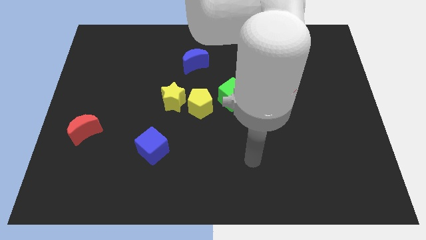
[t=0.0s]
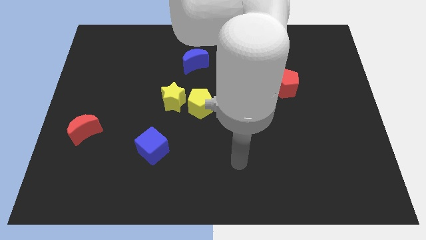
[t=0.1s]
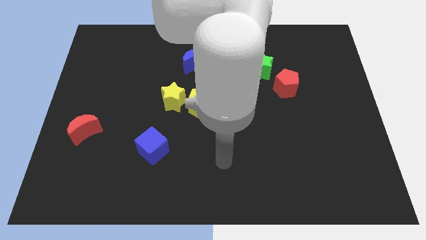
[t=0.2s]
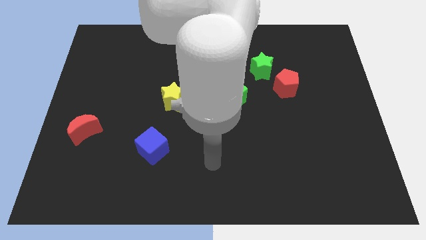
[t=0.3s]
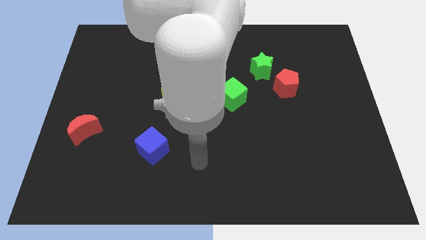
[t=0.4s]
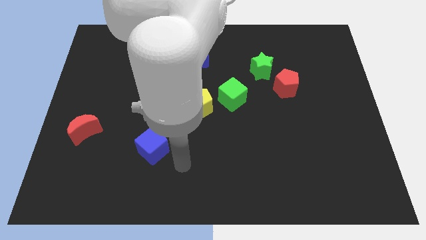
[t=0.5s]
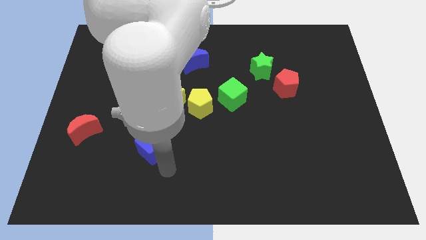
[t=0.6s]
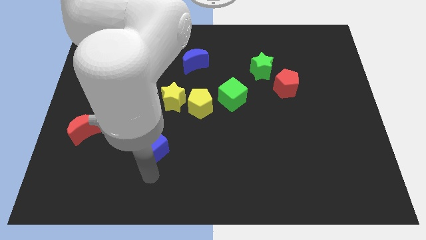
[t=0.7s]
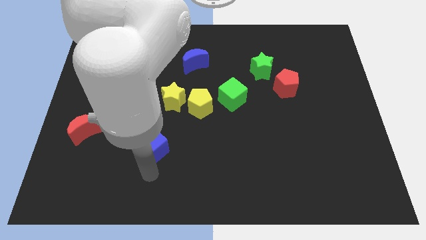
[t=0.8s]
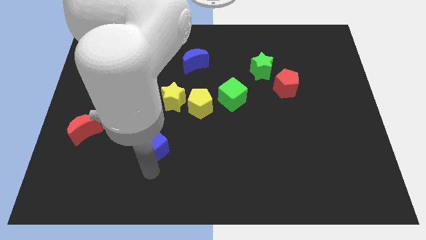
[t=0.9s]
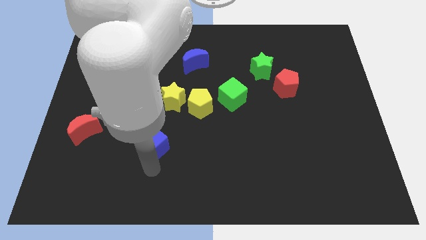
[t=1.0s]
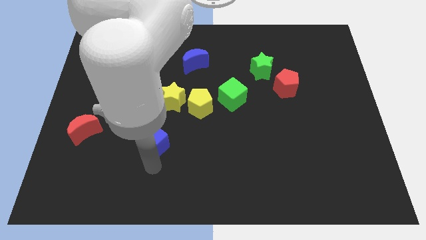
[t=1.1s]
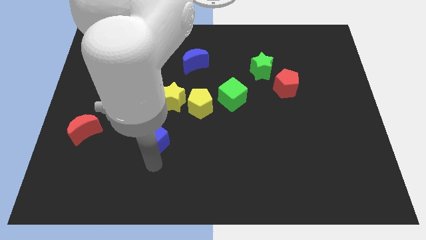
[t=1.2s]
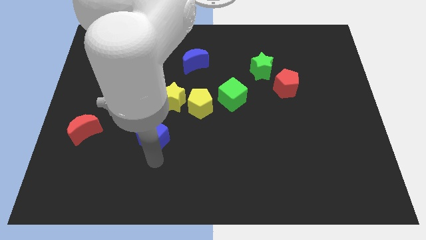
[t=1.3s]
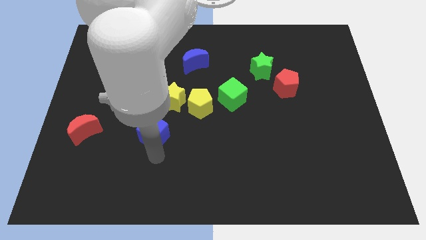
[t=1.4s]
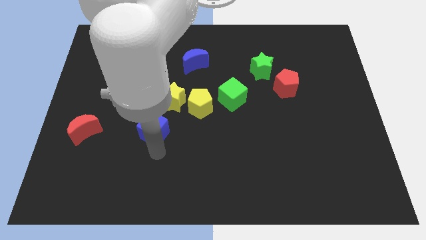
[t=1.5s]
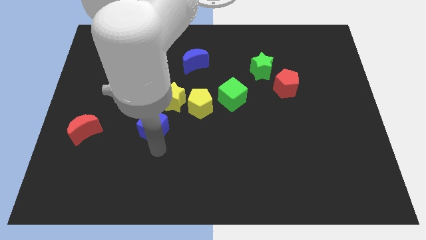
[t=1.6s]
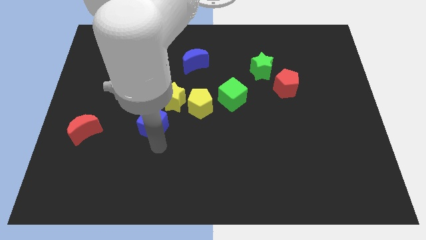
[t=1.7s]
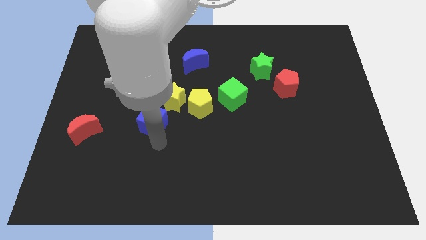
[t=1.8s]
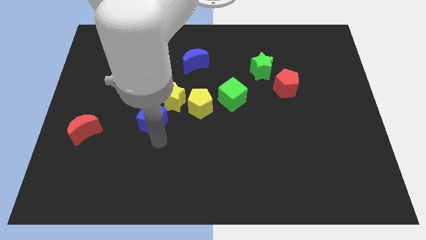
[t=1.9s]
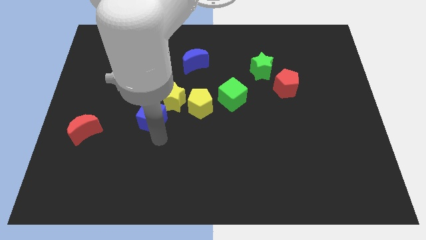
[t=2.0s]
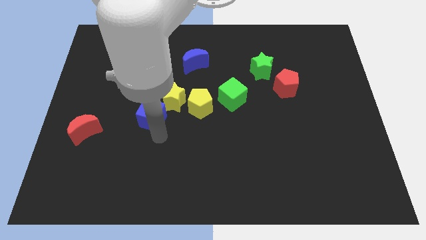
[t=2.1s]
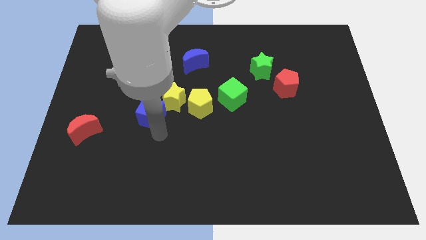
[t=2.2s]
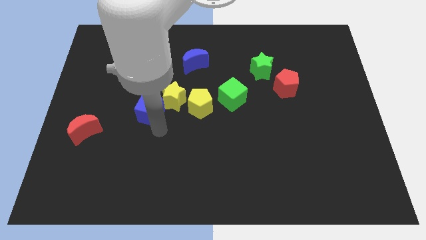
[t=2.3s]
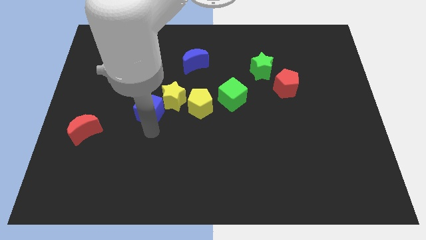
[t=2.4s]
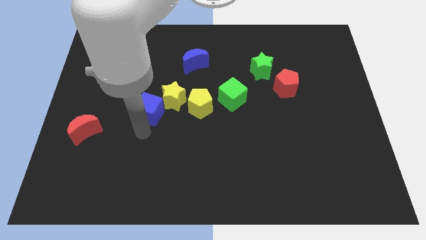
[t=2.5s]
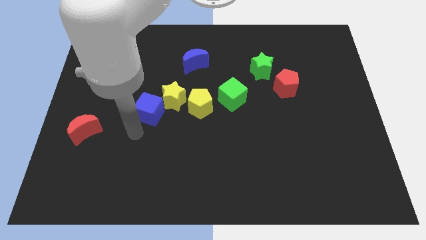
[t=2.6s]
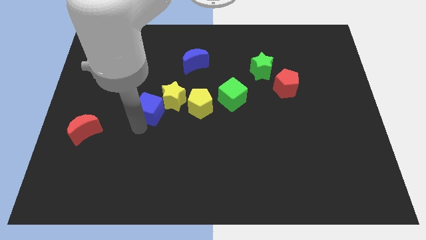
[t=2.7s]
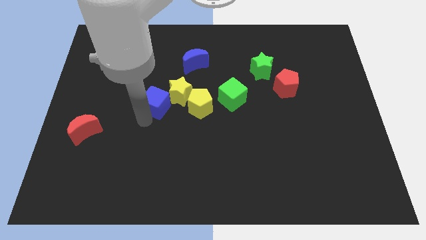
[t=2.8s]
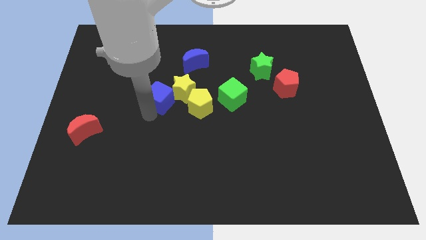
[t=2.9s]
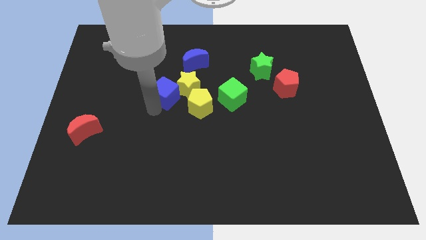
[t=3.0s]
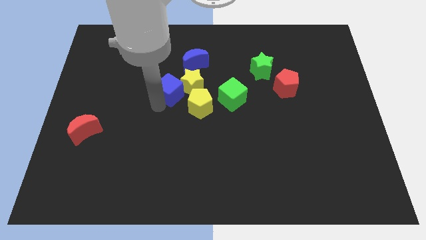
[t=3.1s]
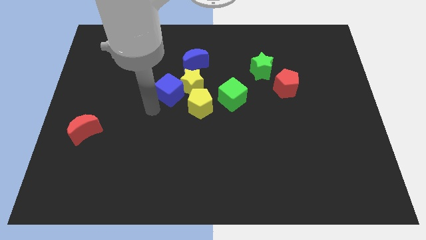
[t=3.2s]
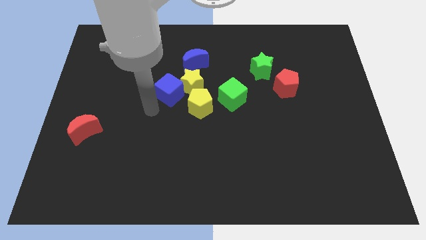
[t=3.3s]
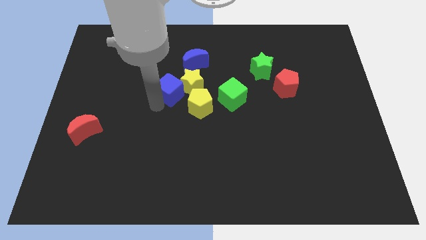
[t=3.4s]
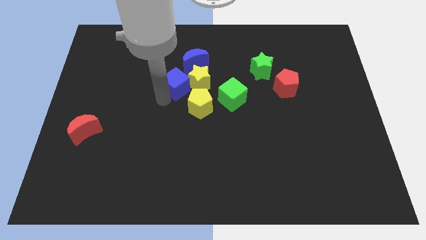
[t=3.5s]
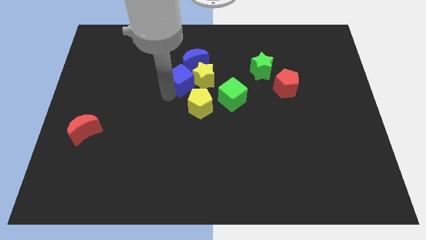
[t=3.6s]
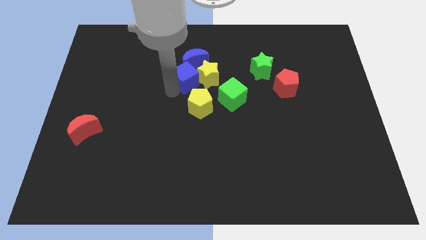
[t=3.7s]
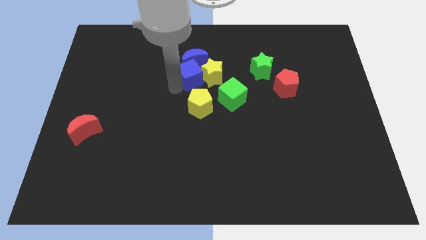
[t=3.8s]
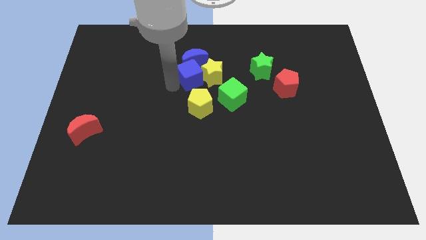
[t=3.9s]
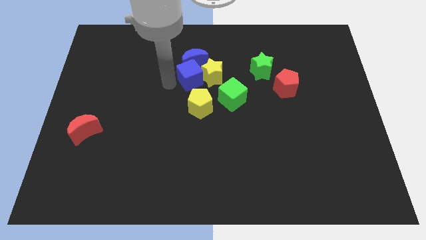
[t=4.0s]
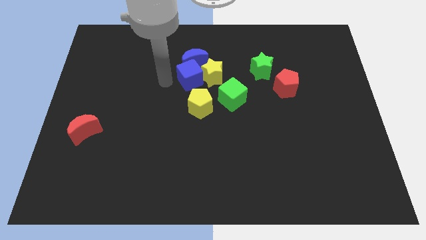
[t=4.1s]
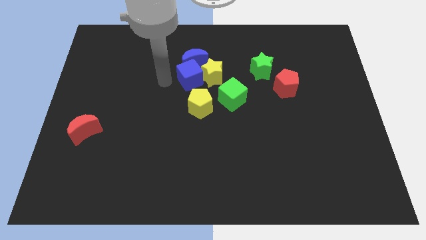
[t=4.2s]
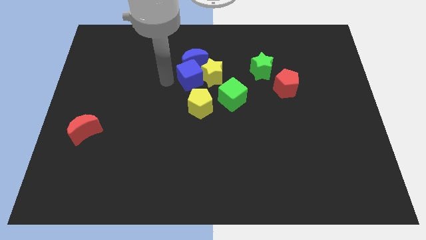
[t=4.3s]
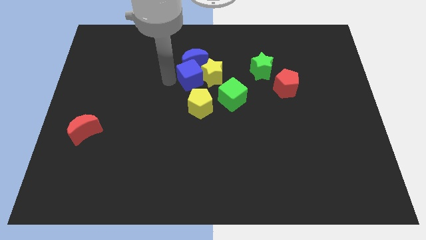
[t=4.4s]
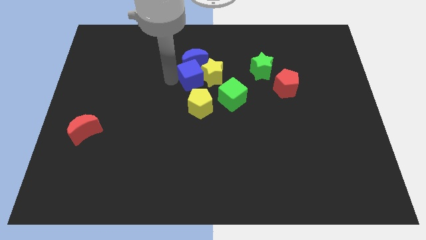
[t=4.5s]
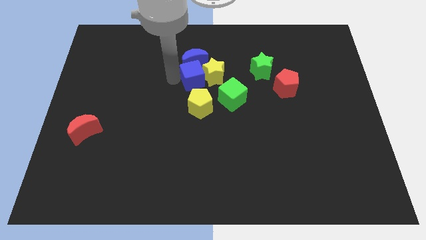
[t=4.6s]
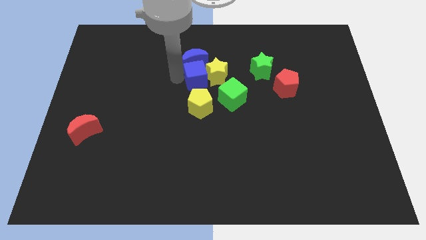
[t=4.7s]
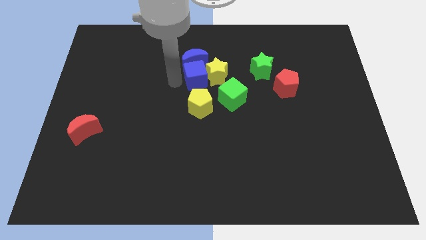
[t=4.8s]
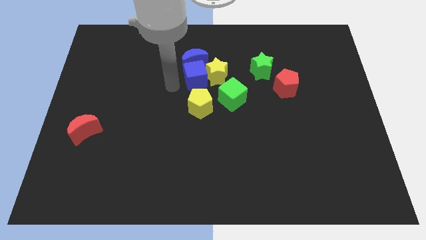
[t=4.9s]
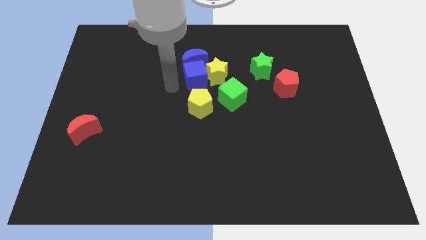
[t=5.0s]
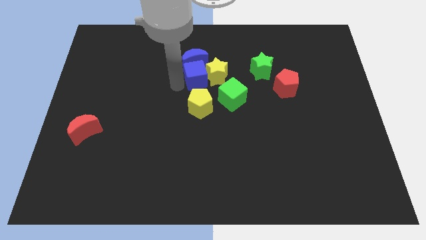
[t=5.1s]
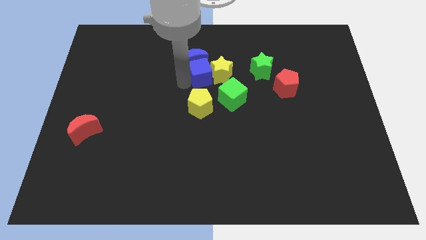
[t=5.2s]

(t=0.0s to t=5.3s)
push the blue cube just left of the green star

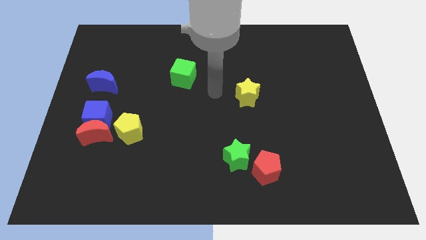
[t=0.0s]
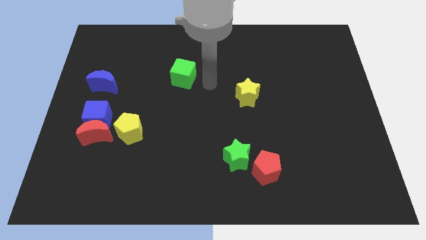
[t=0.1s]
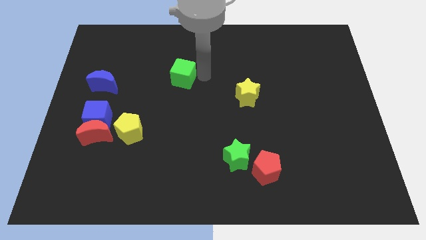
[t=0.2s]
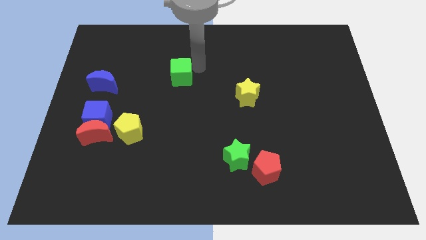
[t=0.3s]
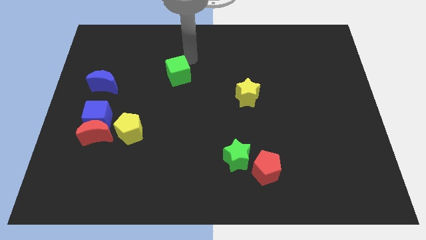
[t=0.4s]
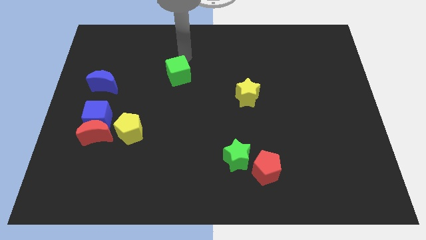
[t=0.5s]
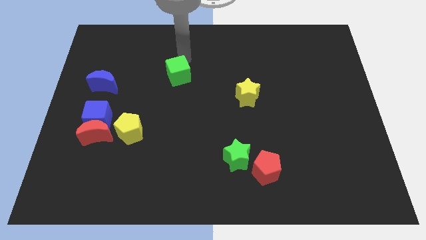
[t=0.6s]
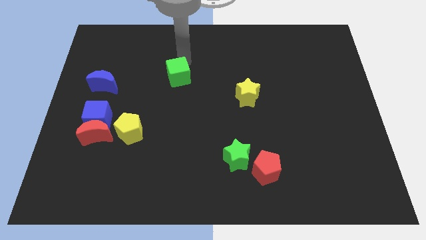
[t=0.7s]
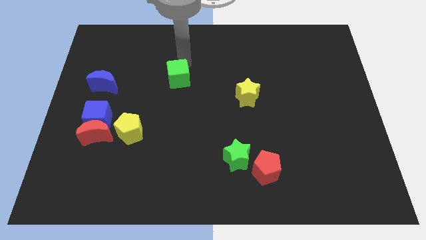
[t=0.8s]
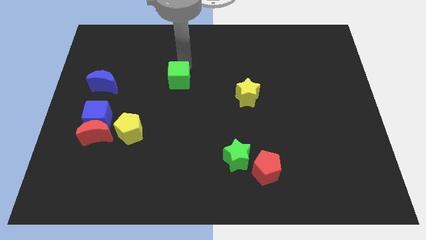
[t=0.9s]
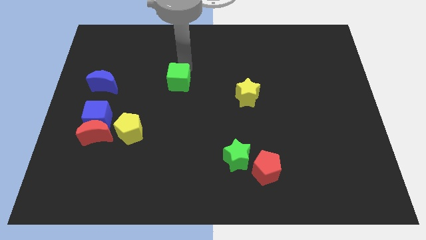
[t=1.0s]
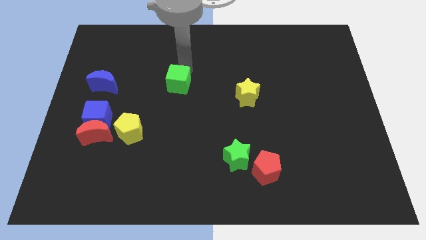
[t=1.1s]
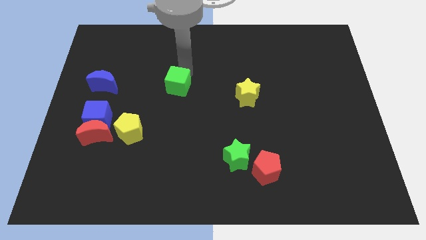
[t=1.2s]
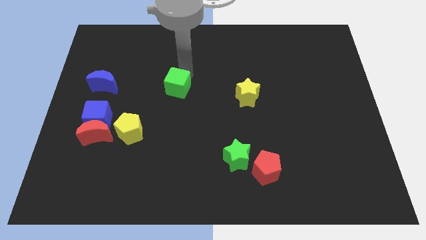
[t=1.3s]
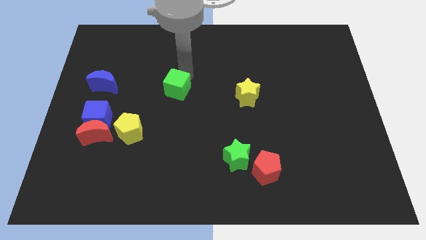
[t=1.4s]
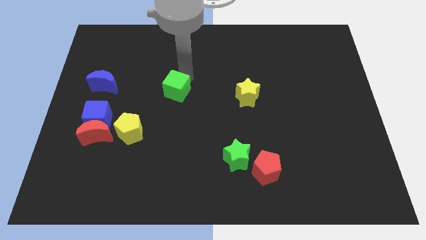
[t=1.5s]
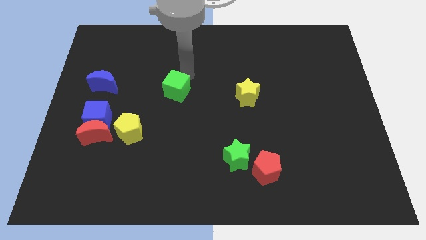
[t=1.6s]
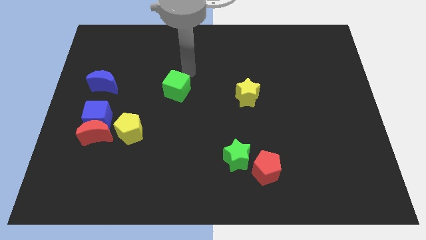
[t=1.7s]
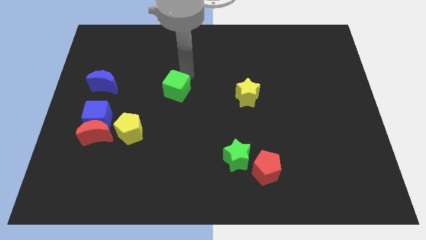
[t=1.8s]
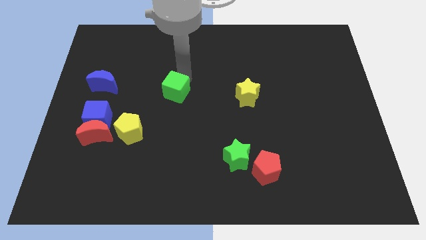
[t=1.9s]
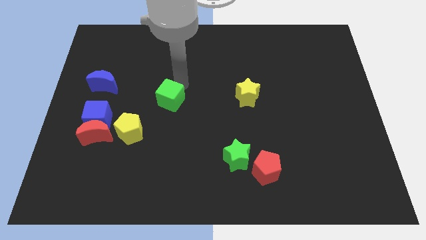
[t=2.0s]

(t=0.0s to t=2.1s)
move the green cube diagonally up and to the right of the yellow pentagon
